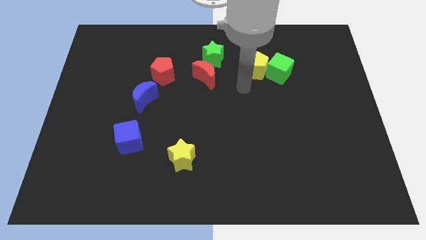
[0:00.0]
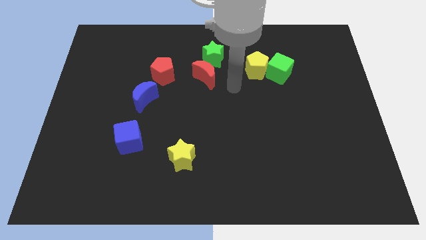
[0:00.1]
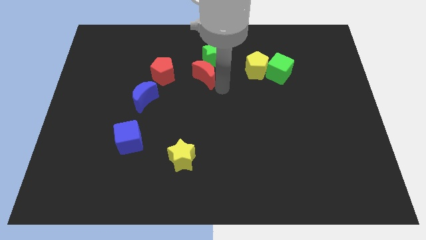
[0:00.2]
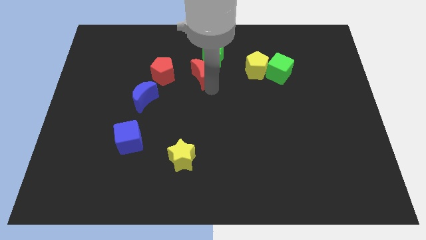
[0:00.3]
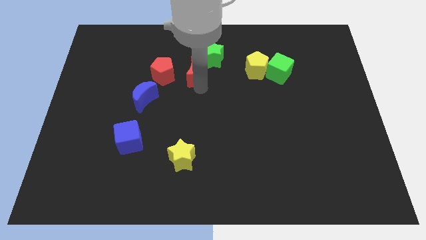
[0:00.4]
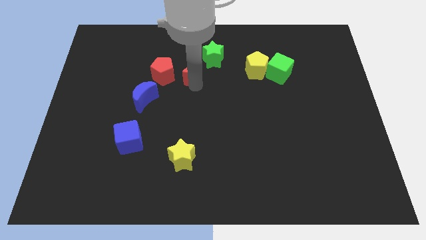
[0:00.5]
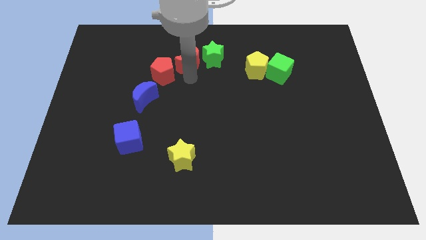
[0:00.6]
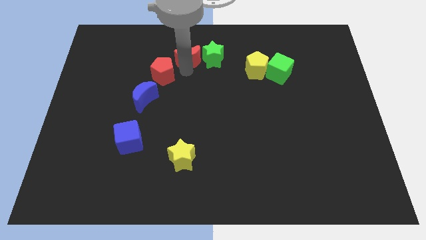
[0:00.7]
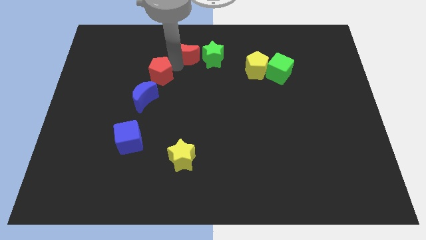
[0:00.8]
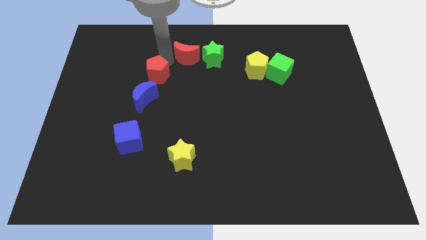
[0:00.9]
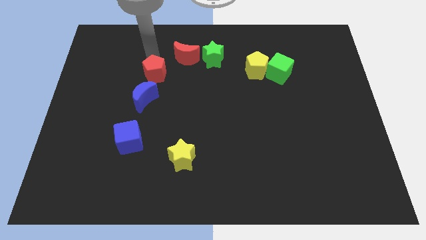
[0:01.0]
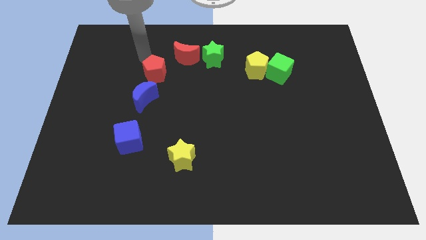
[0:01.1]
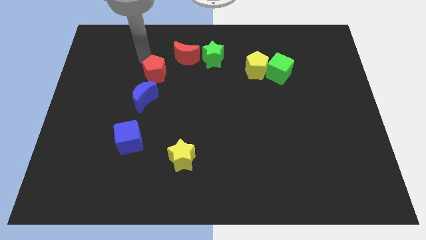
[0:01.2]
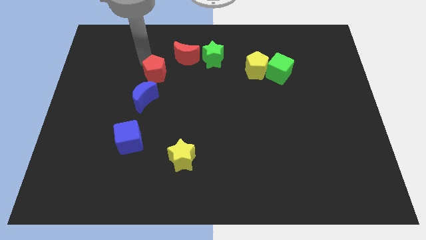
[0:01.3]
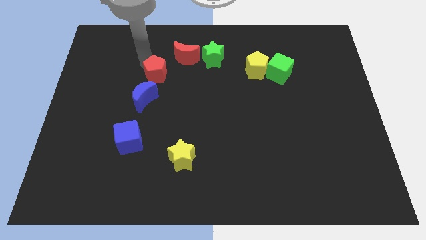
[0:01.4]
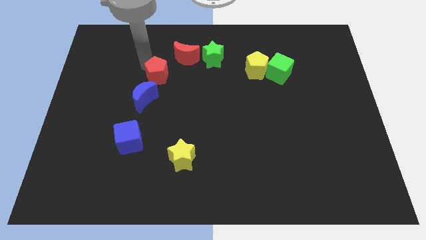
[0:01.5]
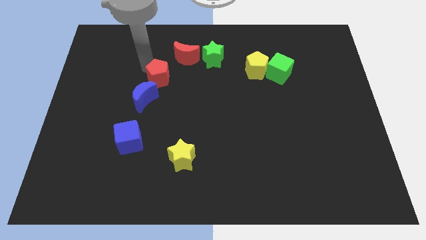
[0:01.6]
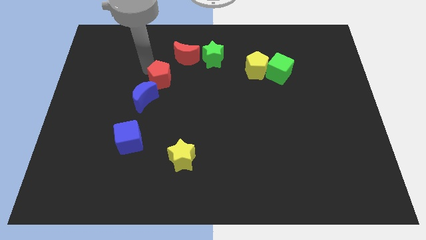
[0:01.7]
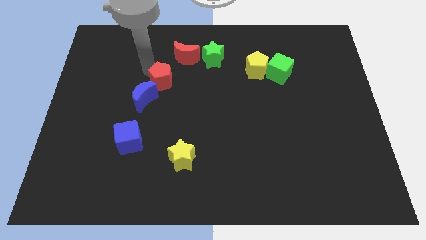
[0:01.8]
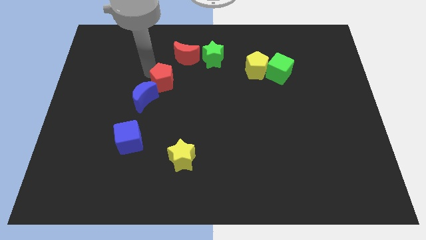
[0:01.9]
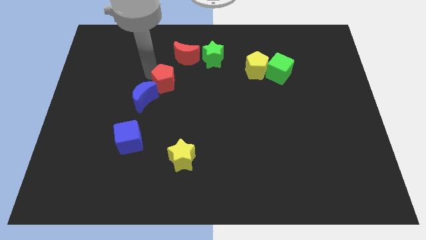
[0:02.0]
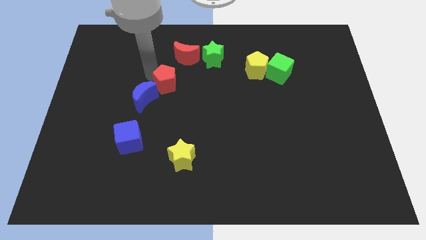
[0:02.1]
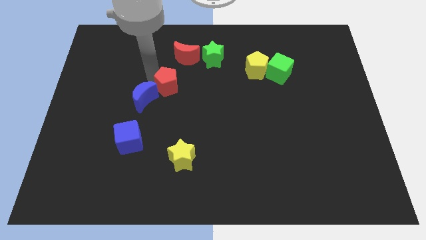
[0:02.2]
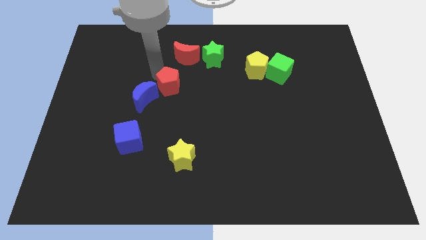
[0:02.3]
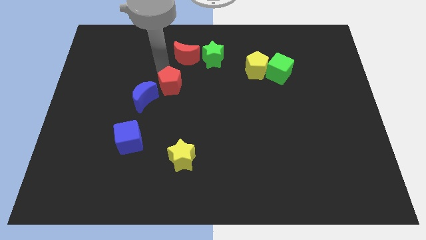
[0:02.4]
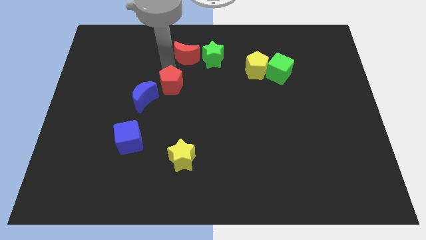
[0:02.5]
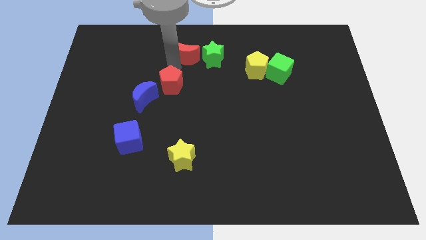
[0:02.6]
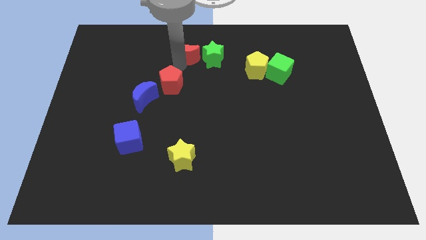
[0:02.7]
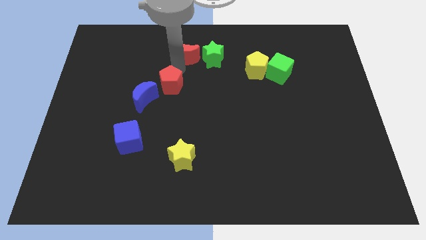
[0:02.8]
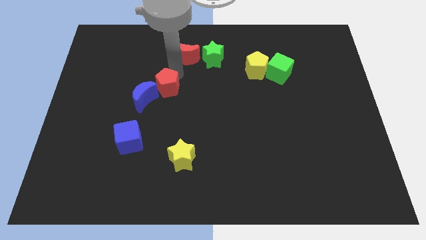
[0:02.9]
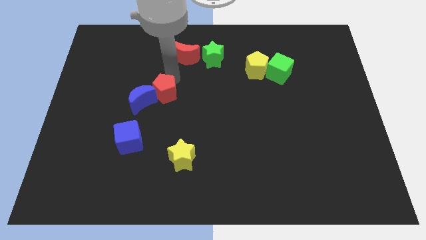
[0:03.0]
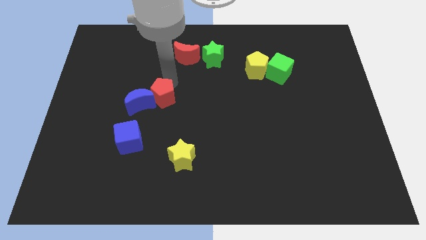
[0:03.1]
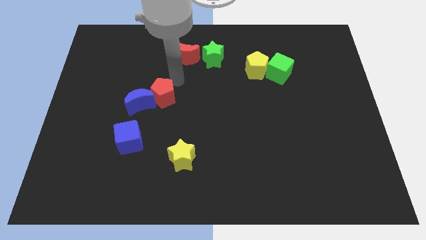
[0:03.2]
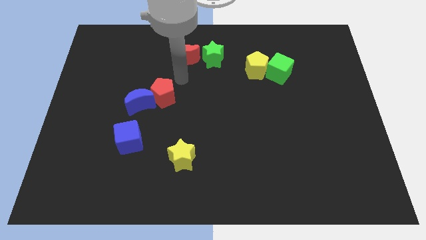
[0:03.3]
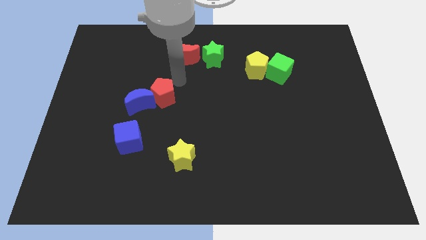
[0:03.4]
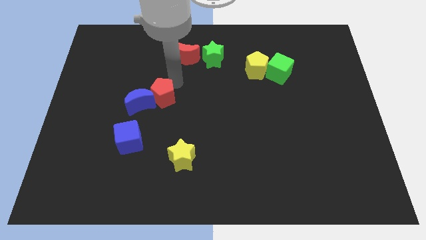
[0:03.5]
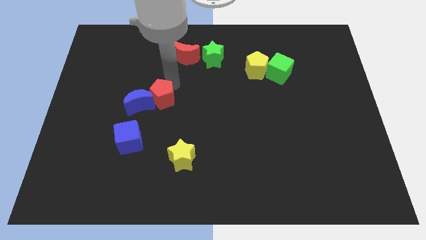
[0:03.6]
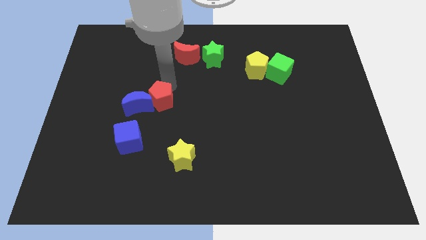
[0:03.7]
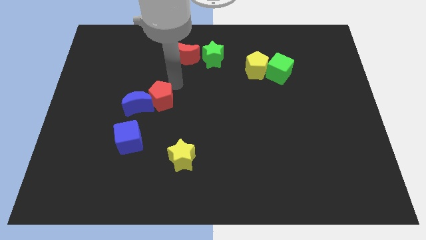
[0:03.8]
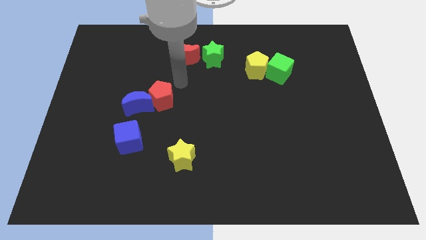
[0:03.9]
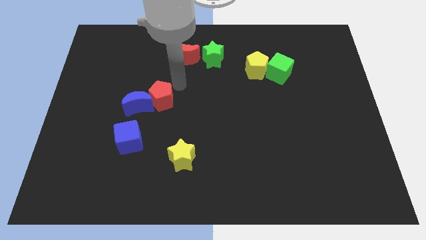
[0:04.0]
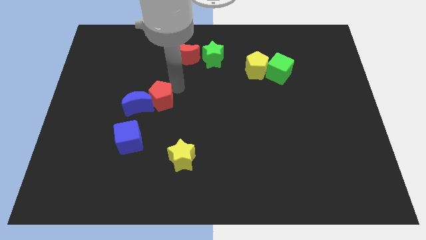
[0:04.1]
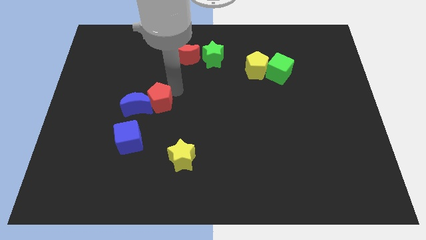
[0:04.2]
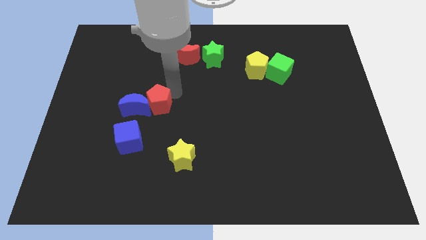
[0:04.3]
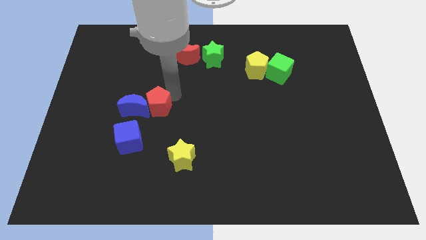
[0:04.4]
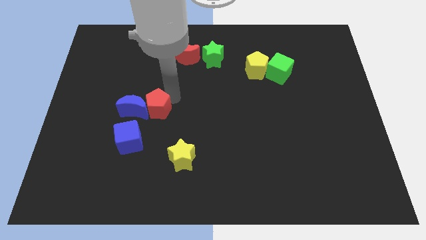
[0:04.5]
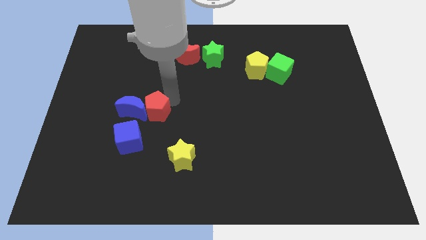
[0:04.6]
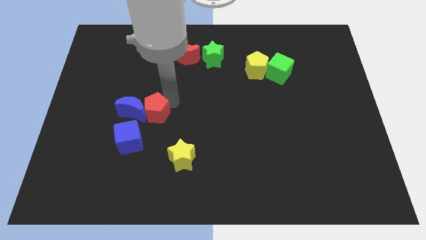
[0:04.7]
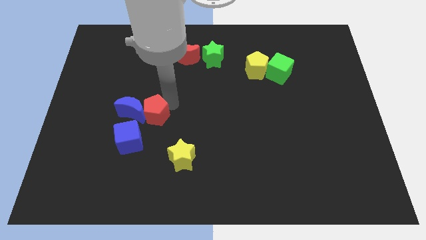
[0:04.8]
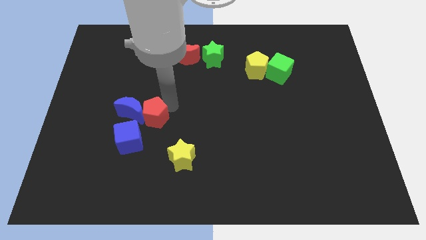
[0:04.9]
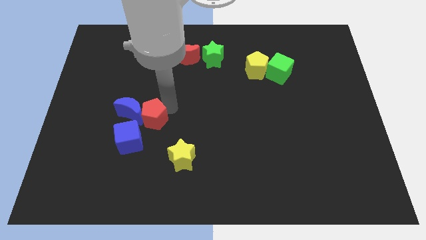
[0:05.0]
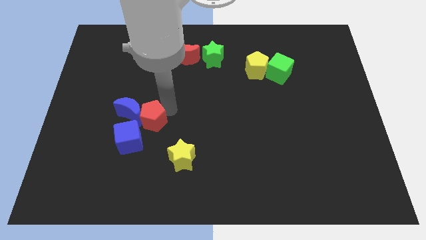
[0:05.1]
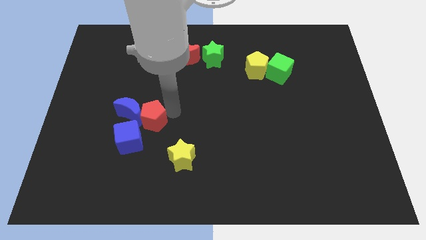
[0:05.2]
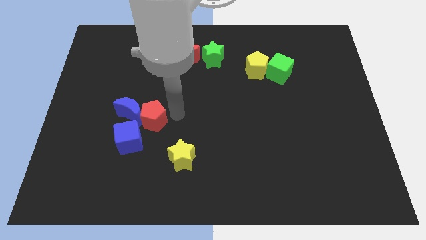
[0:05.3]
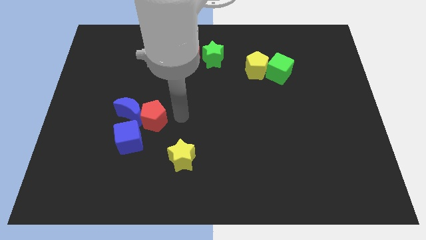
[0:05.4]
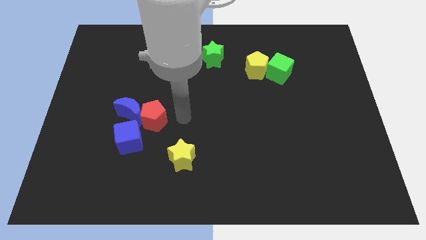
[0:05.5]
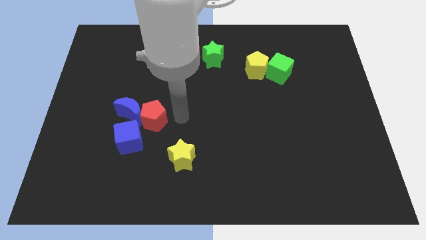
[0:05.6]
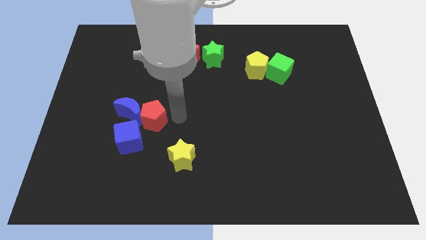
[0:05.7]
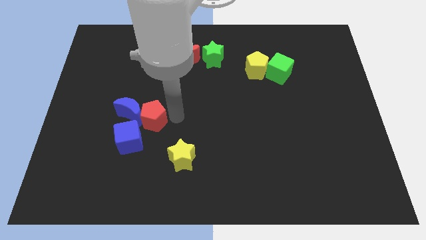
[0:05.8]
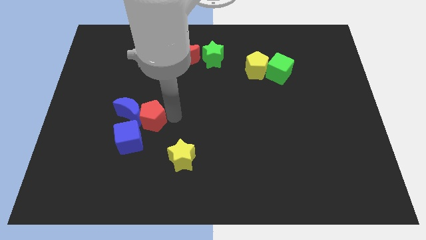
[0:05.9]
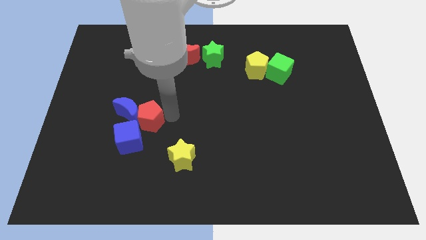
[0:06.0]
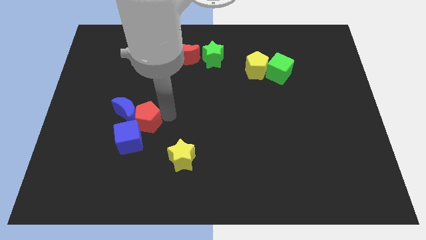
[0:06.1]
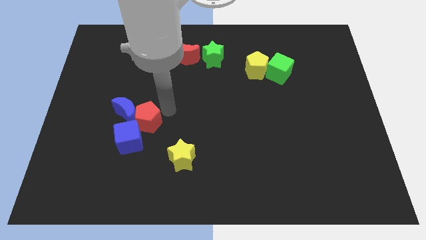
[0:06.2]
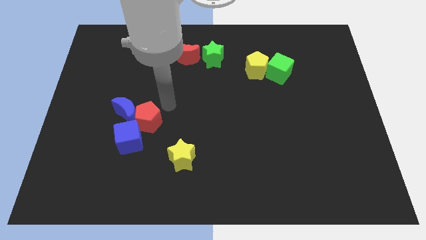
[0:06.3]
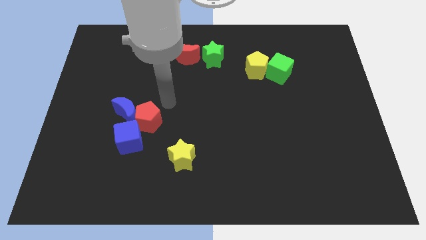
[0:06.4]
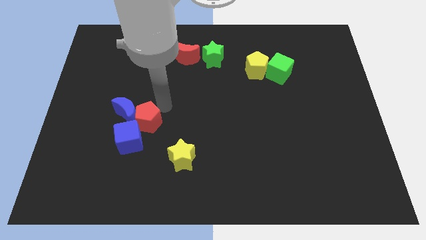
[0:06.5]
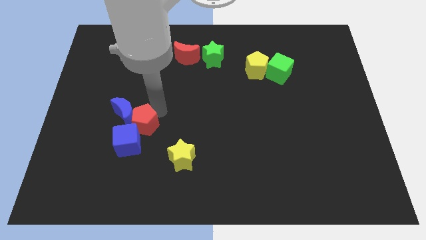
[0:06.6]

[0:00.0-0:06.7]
slide the red pentagon next to the blue cube

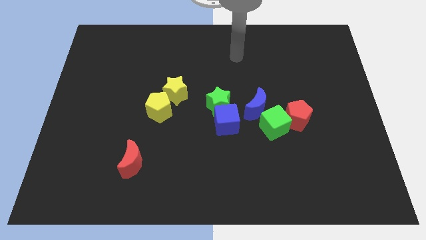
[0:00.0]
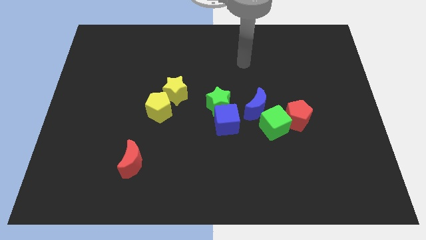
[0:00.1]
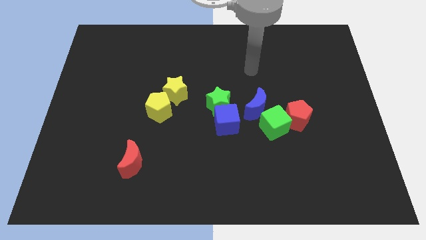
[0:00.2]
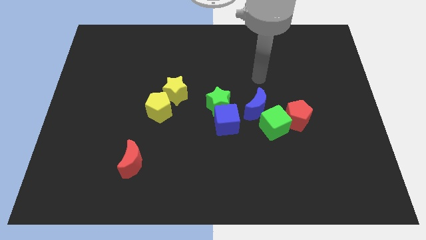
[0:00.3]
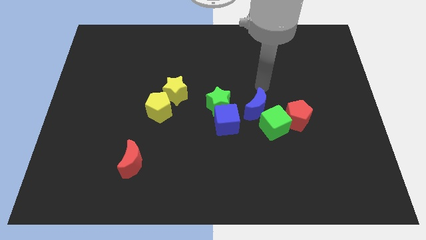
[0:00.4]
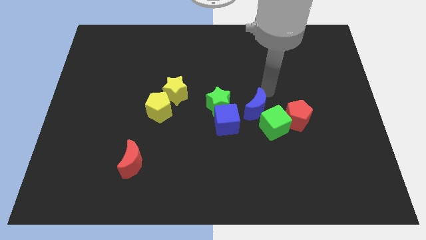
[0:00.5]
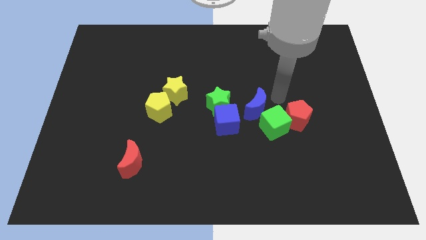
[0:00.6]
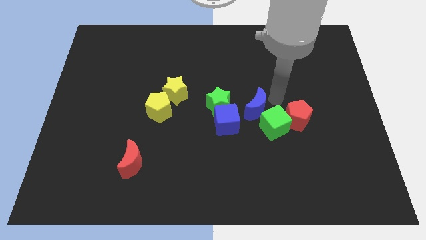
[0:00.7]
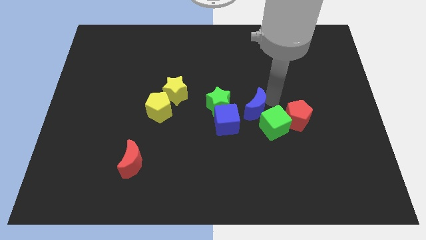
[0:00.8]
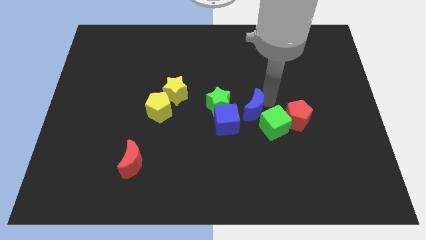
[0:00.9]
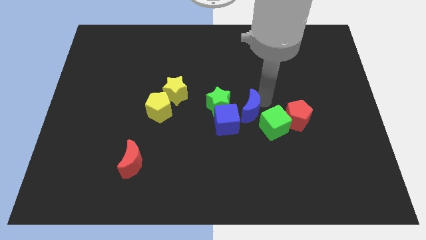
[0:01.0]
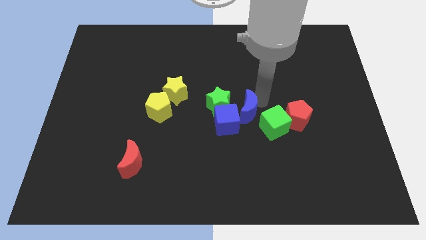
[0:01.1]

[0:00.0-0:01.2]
slide the blue moon to the blue cube
